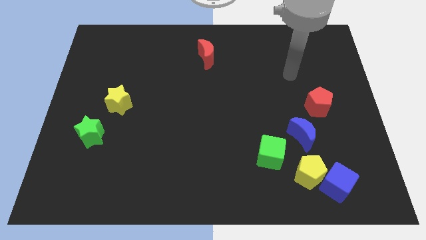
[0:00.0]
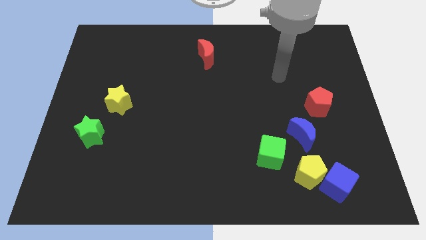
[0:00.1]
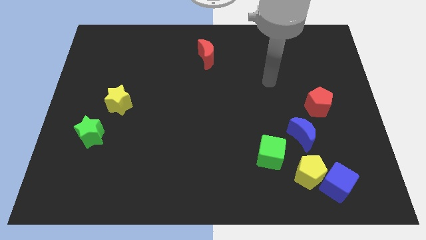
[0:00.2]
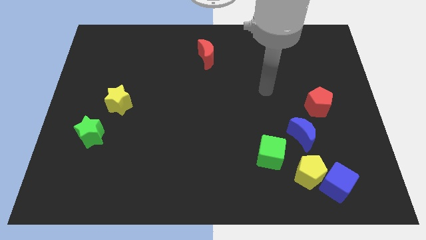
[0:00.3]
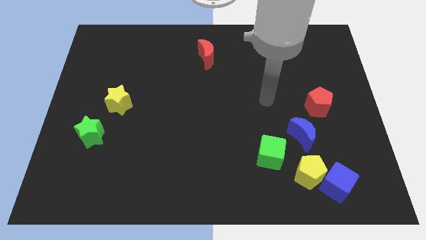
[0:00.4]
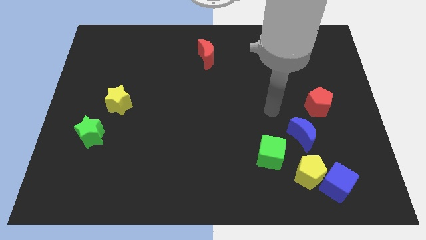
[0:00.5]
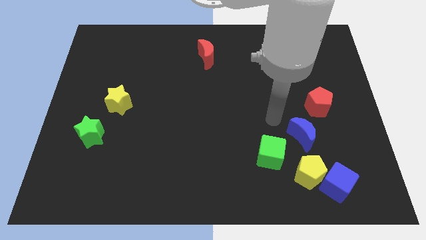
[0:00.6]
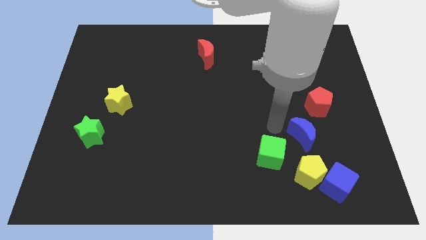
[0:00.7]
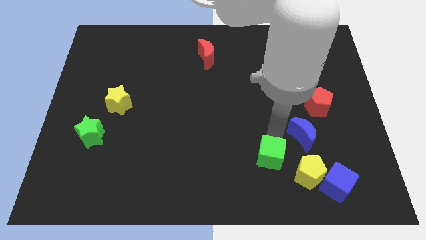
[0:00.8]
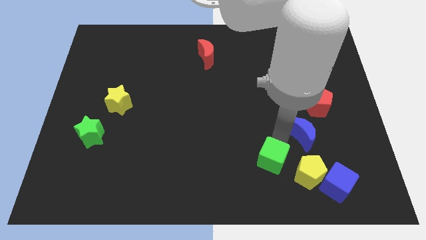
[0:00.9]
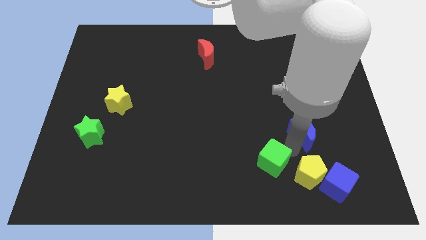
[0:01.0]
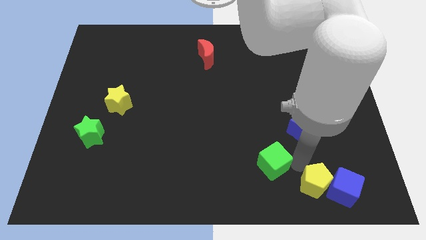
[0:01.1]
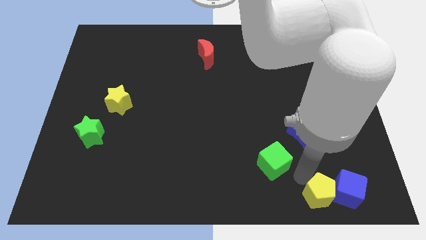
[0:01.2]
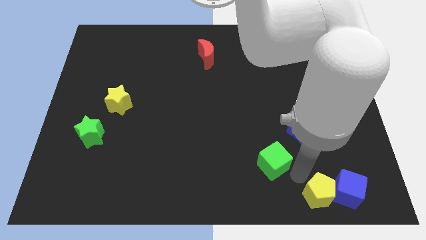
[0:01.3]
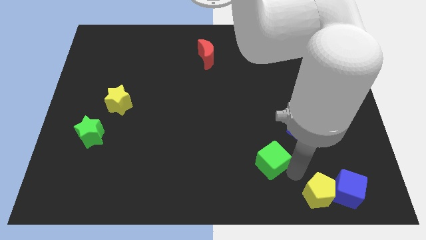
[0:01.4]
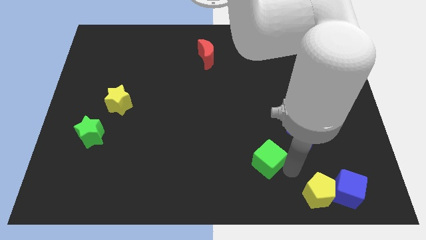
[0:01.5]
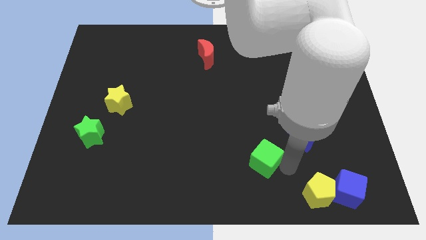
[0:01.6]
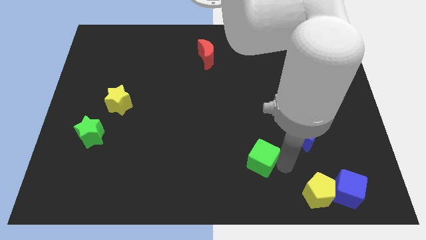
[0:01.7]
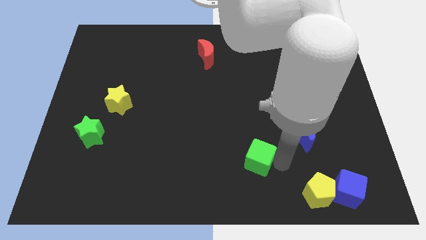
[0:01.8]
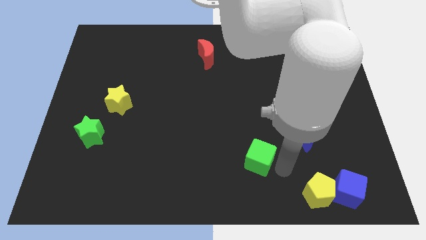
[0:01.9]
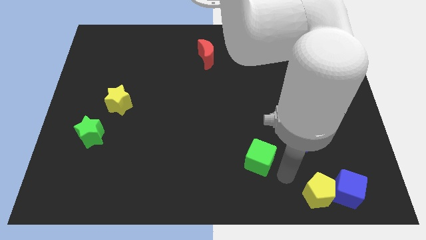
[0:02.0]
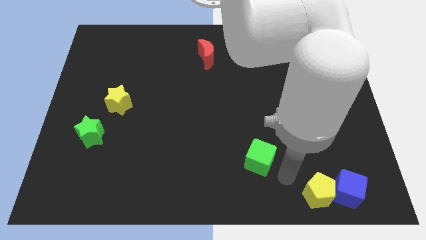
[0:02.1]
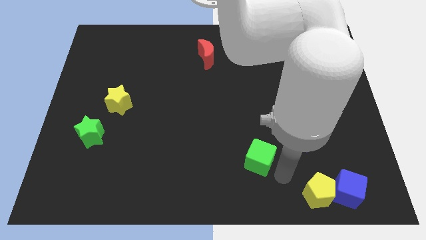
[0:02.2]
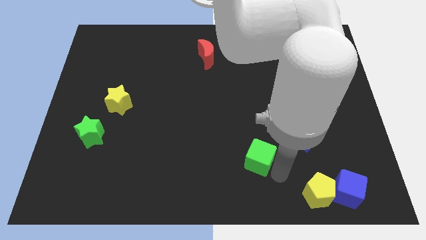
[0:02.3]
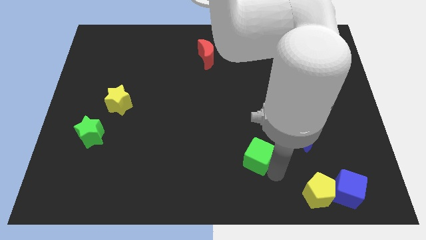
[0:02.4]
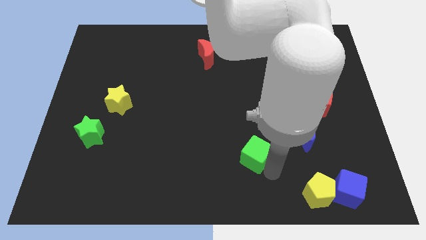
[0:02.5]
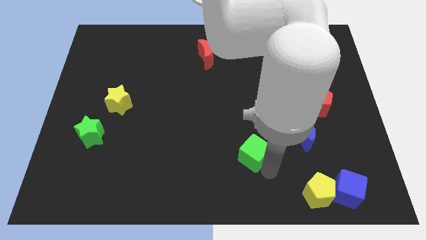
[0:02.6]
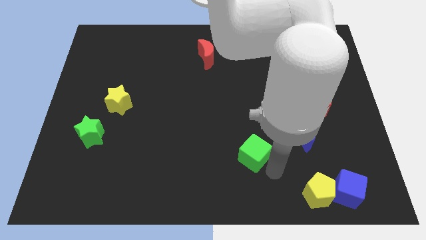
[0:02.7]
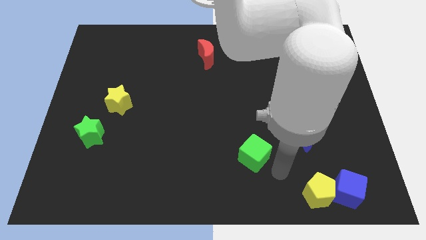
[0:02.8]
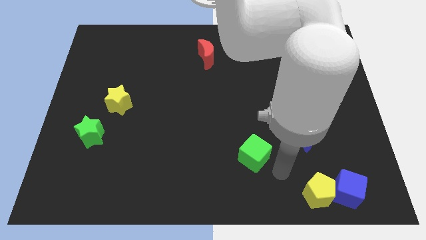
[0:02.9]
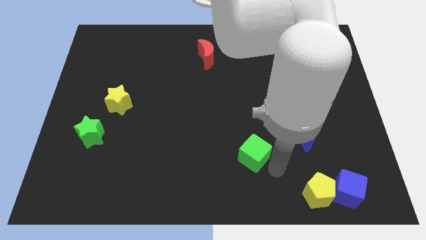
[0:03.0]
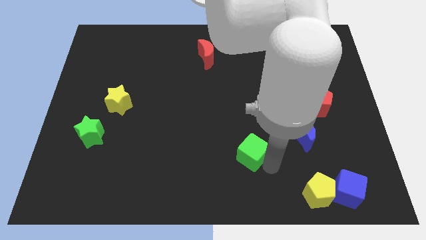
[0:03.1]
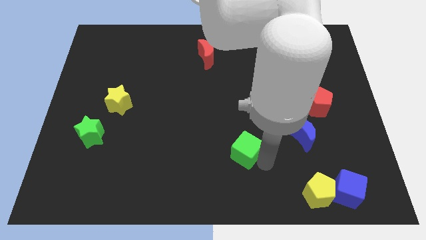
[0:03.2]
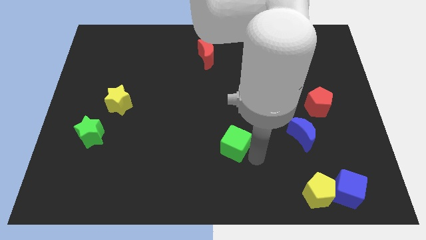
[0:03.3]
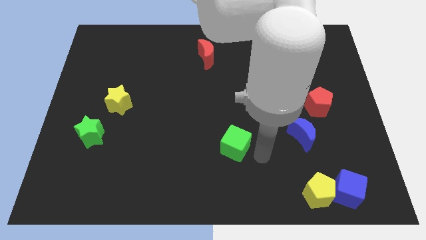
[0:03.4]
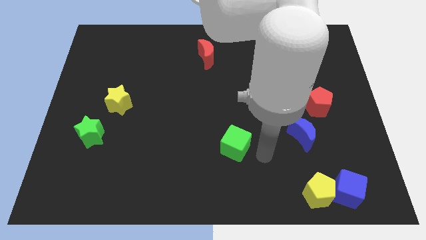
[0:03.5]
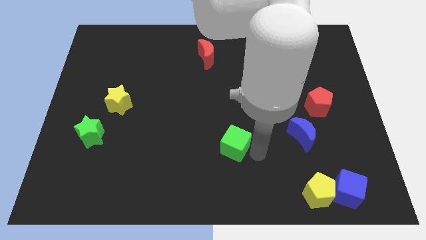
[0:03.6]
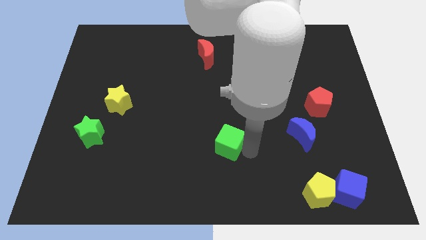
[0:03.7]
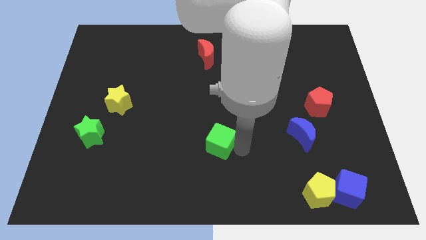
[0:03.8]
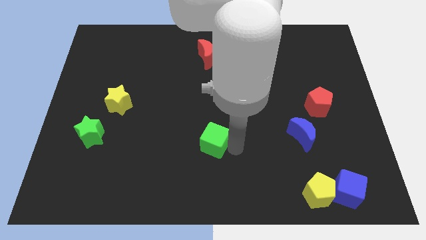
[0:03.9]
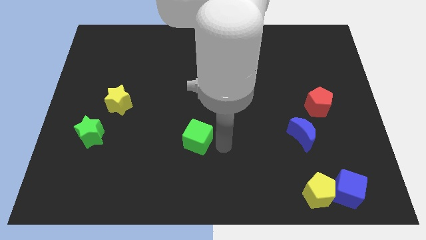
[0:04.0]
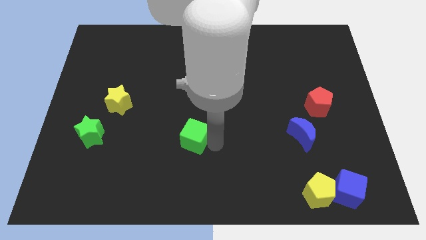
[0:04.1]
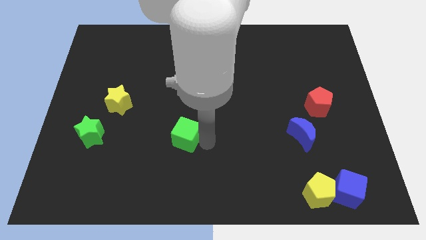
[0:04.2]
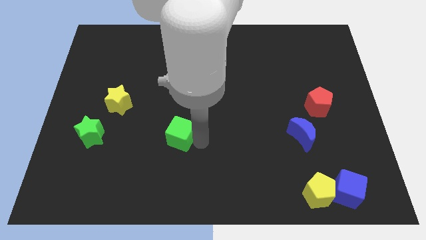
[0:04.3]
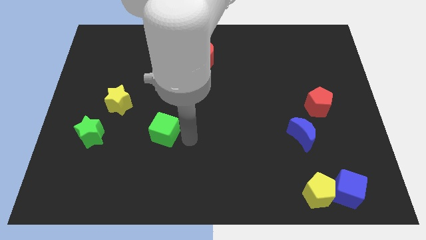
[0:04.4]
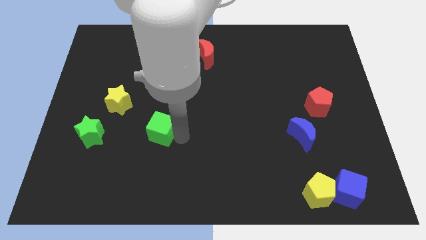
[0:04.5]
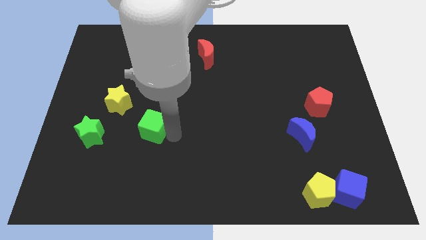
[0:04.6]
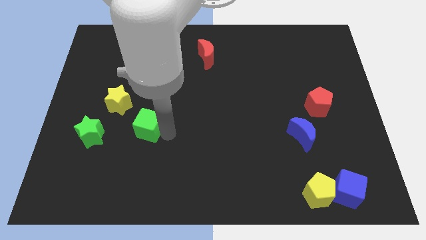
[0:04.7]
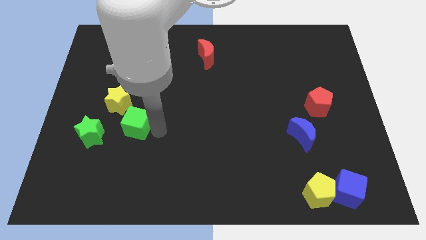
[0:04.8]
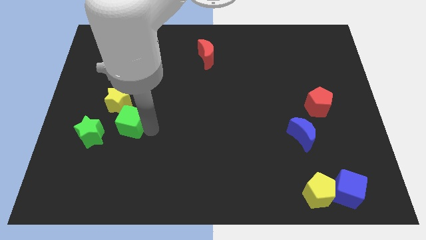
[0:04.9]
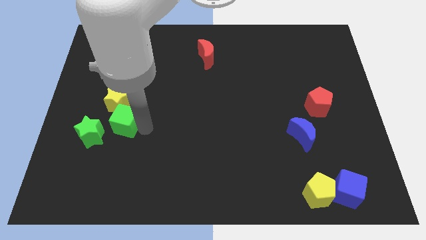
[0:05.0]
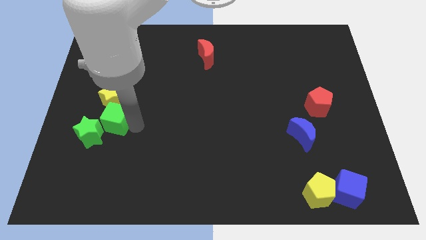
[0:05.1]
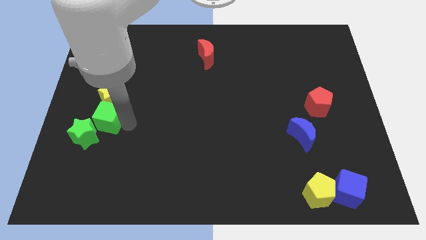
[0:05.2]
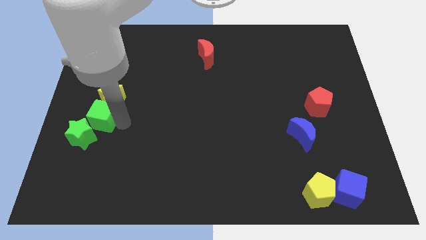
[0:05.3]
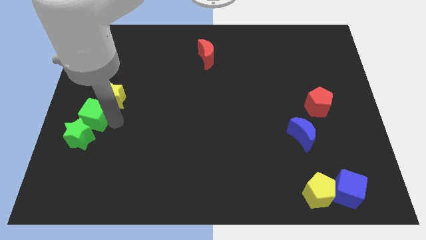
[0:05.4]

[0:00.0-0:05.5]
put the green cube to the left side

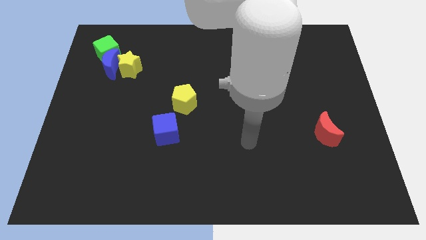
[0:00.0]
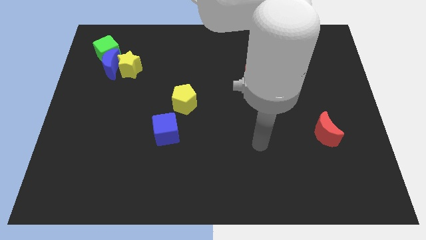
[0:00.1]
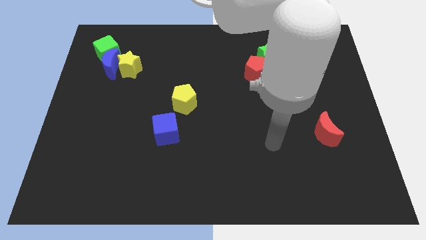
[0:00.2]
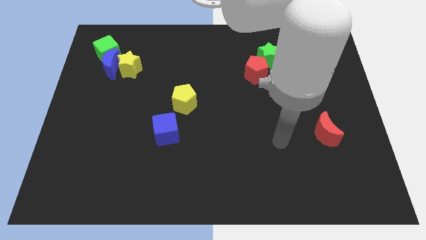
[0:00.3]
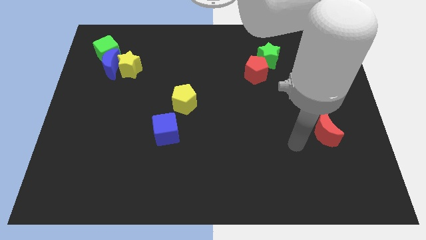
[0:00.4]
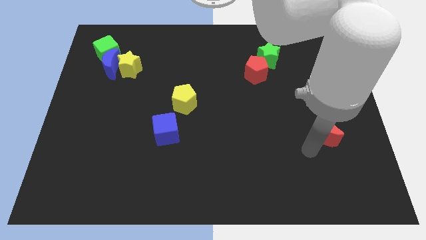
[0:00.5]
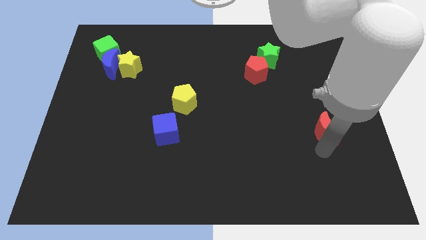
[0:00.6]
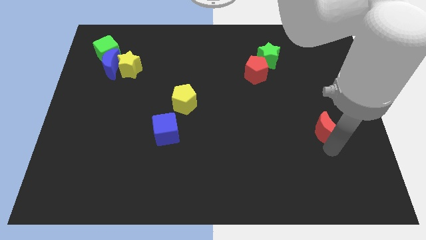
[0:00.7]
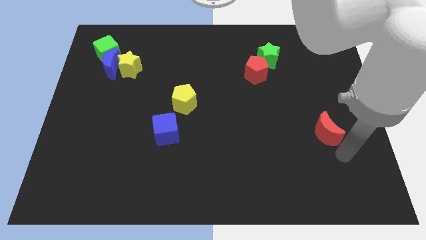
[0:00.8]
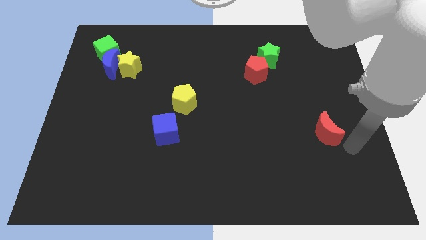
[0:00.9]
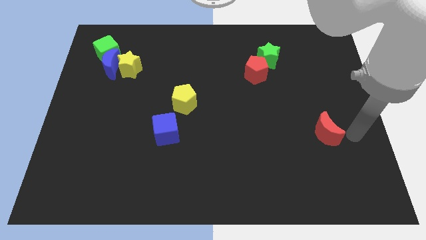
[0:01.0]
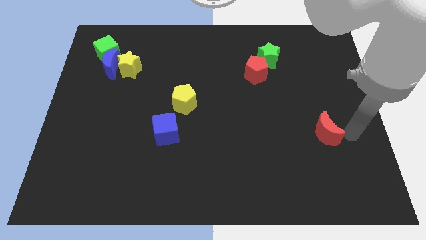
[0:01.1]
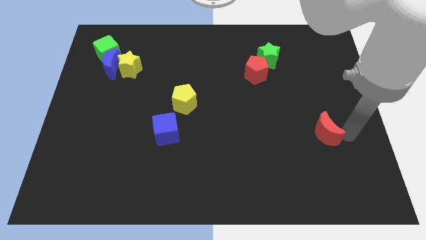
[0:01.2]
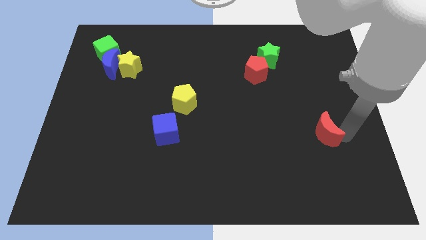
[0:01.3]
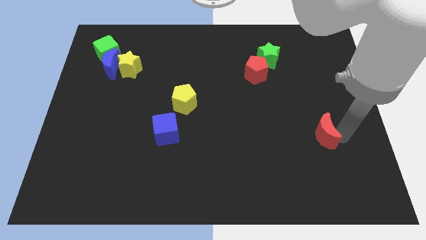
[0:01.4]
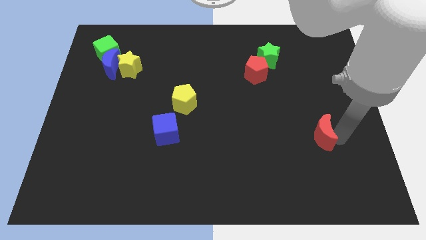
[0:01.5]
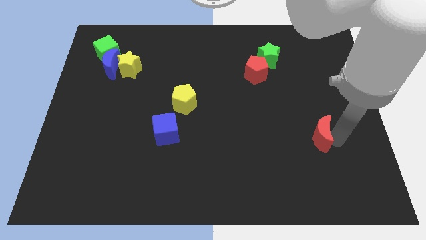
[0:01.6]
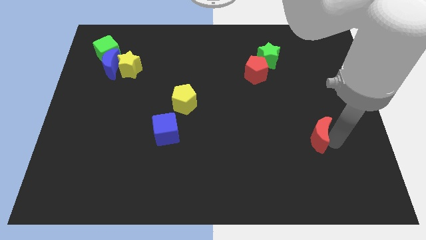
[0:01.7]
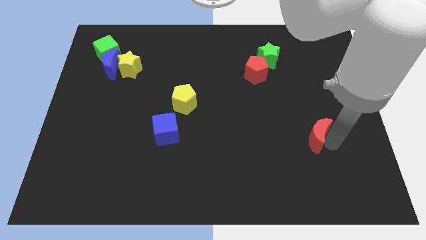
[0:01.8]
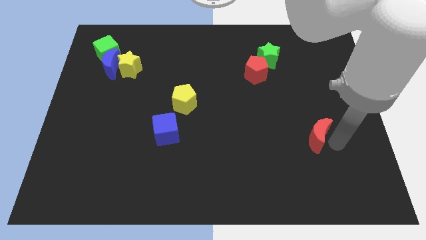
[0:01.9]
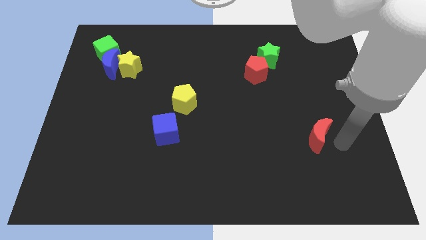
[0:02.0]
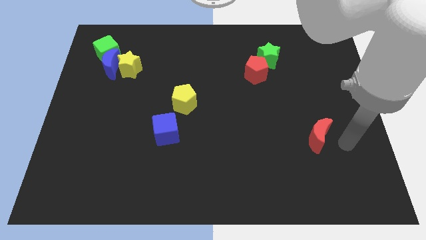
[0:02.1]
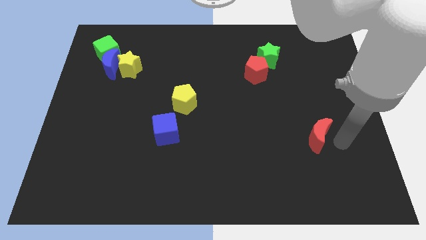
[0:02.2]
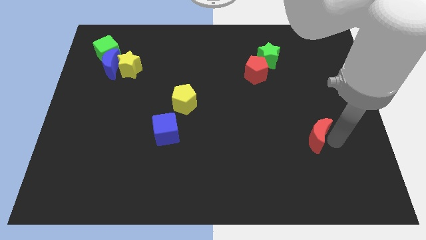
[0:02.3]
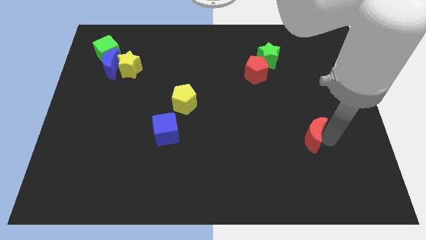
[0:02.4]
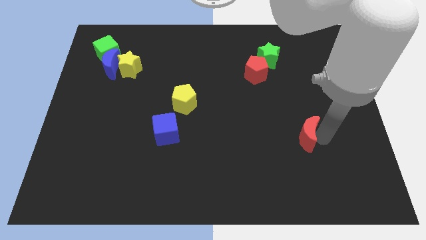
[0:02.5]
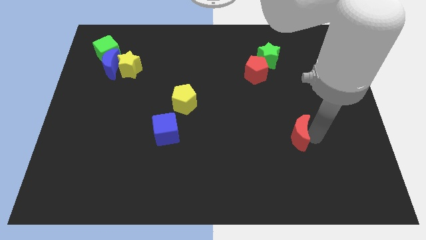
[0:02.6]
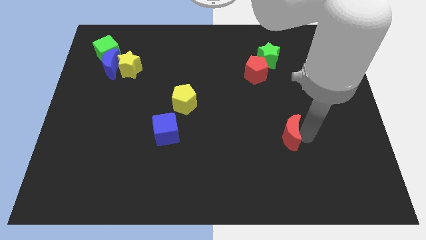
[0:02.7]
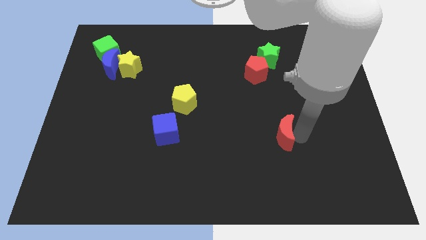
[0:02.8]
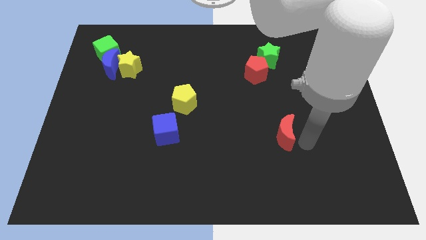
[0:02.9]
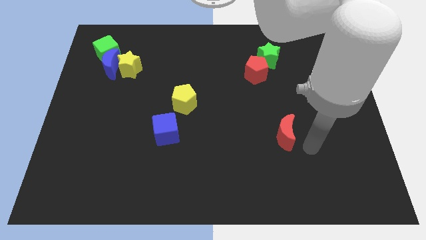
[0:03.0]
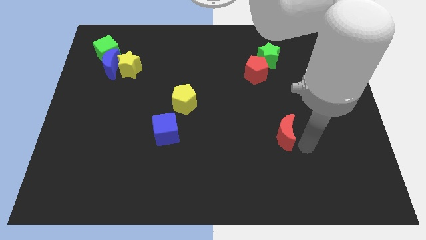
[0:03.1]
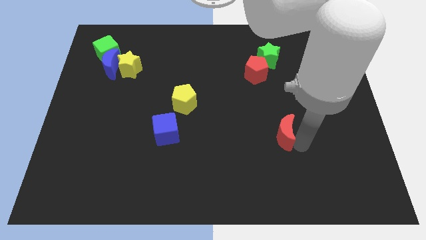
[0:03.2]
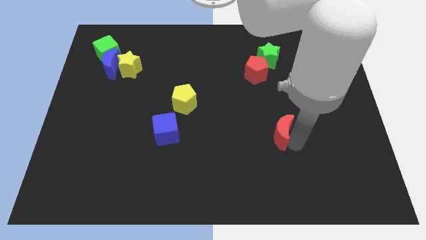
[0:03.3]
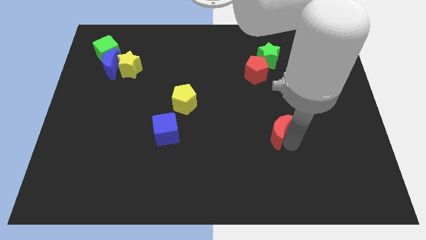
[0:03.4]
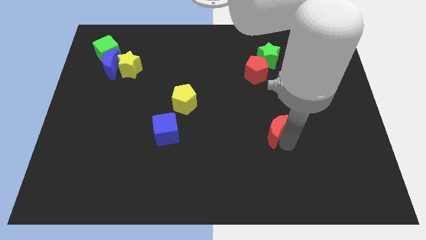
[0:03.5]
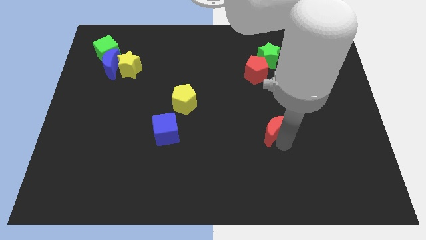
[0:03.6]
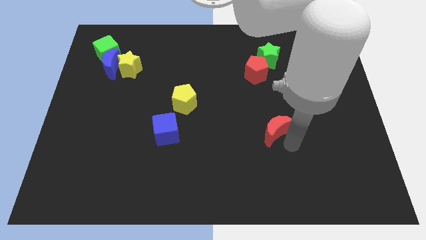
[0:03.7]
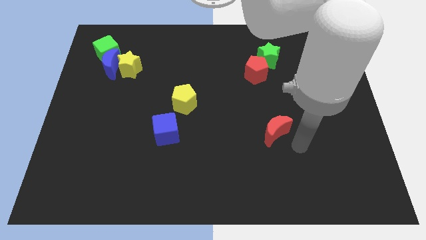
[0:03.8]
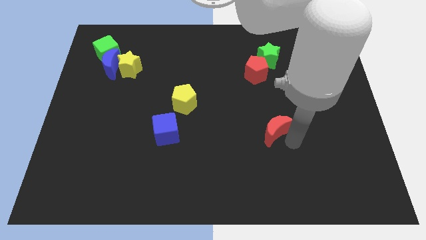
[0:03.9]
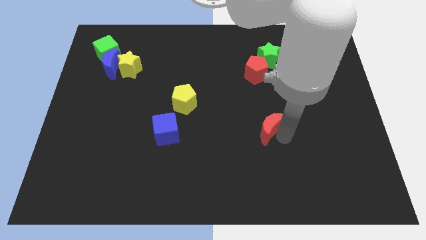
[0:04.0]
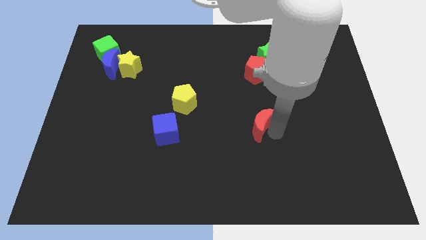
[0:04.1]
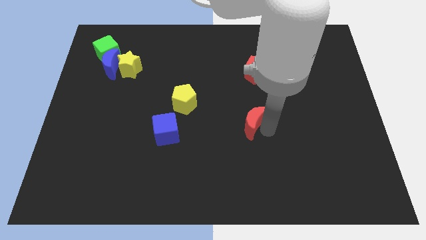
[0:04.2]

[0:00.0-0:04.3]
push the red moon to the center
